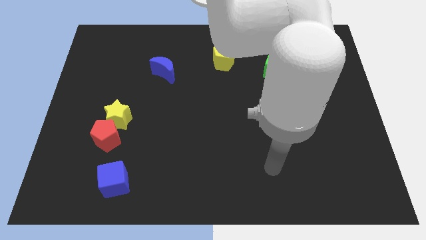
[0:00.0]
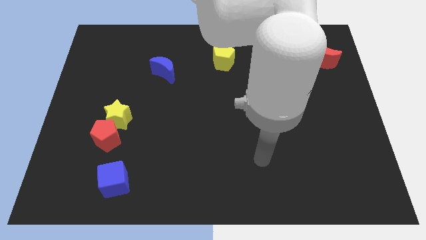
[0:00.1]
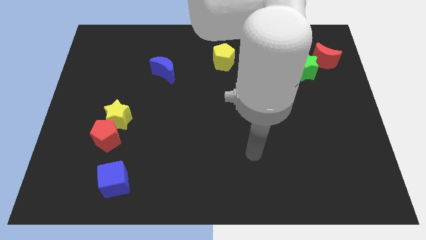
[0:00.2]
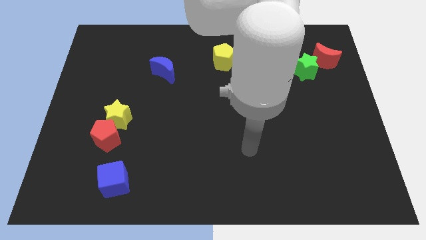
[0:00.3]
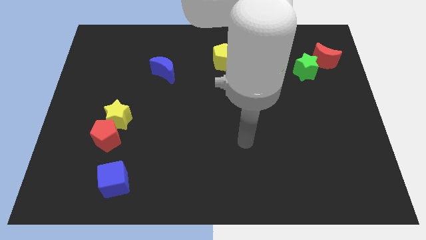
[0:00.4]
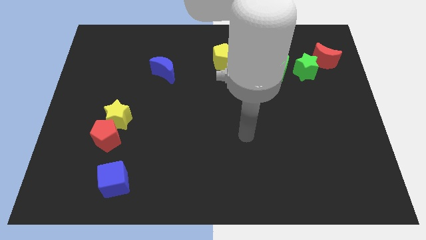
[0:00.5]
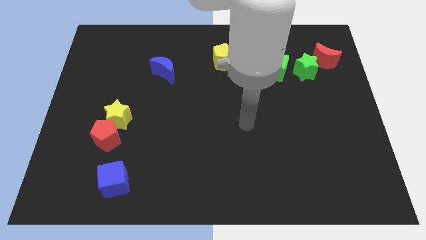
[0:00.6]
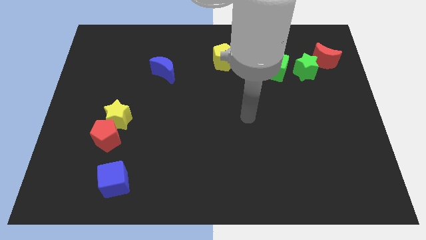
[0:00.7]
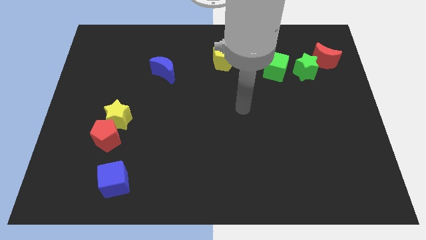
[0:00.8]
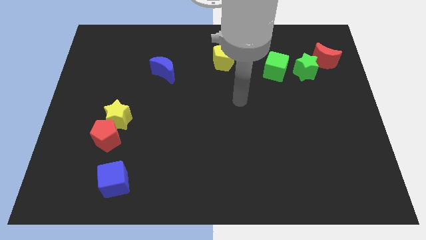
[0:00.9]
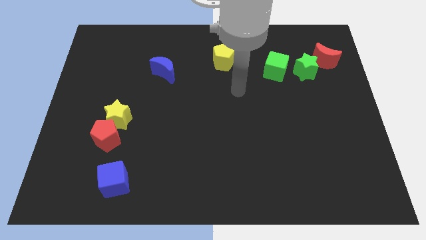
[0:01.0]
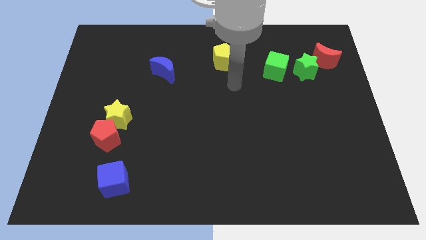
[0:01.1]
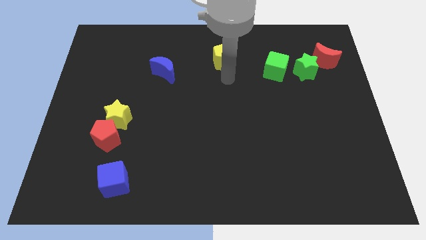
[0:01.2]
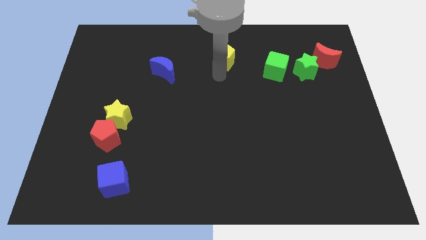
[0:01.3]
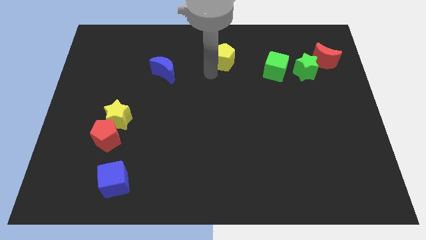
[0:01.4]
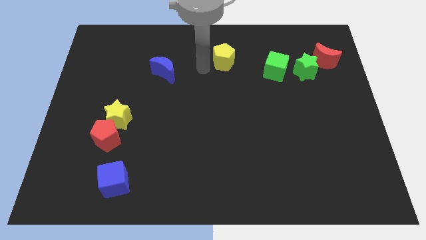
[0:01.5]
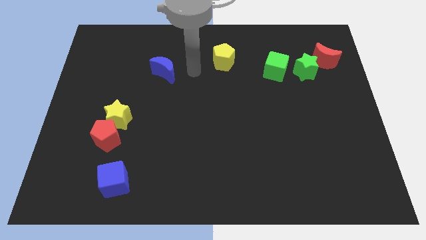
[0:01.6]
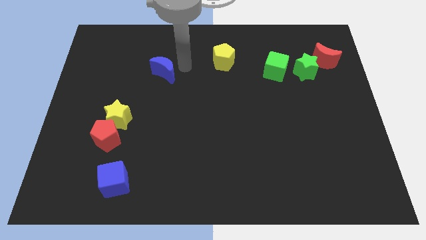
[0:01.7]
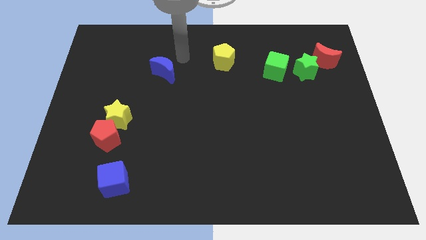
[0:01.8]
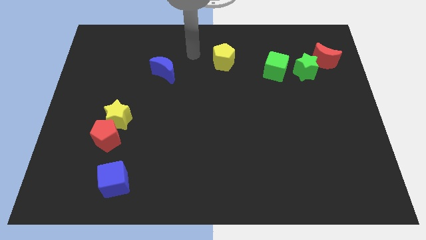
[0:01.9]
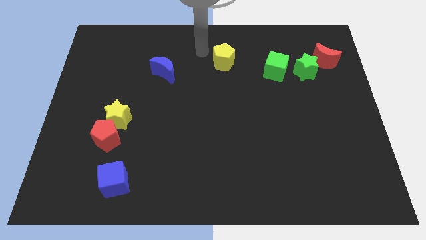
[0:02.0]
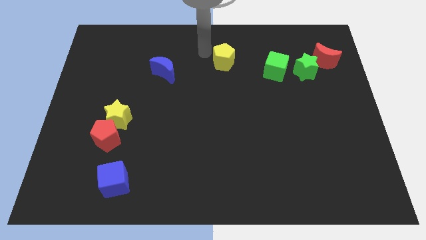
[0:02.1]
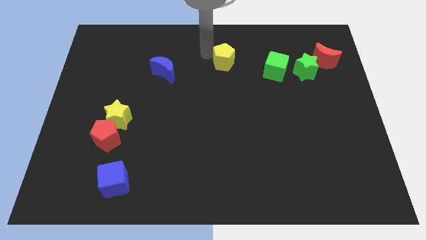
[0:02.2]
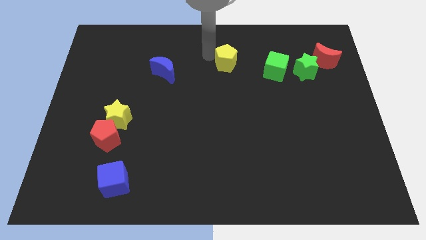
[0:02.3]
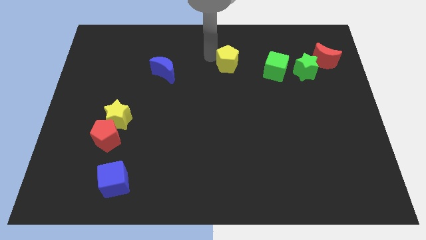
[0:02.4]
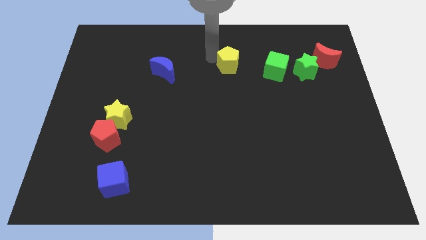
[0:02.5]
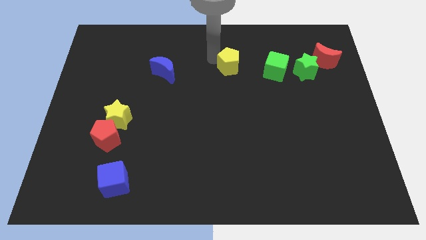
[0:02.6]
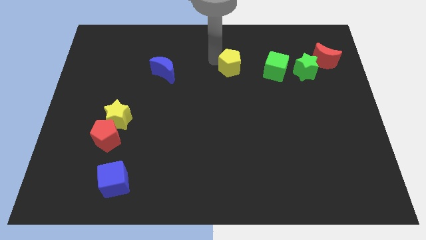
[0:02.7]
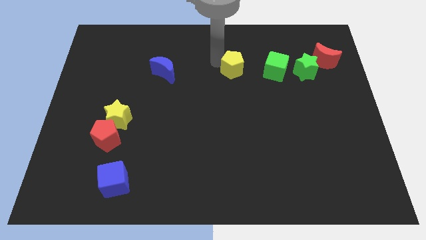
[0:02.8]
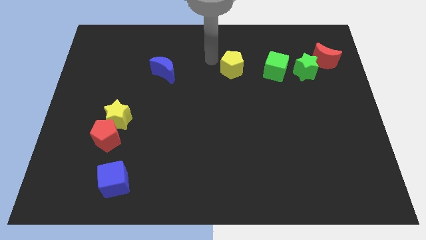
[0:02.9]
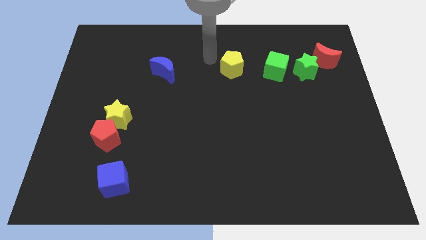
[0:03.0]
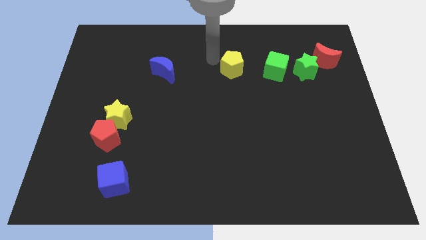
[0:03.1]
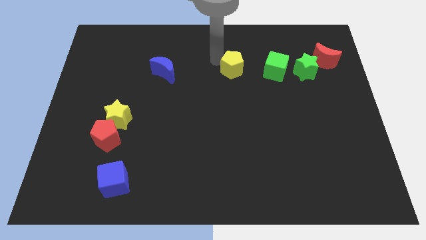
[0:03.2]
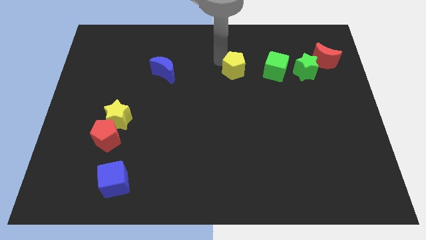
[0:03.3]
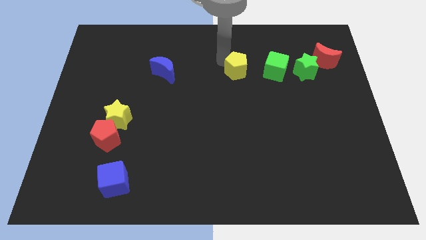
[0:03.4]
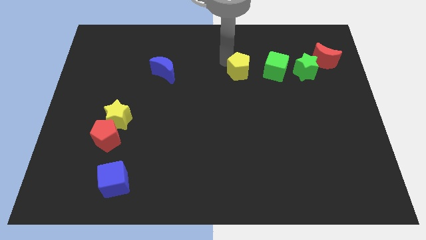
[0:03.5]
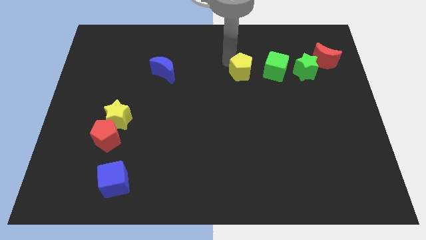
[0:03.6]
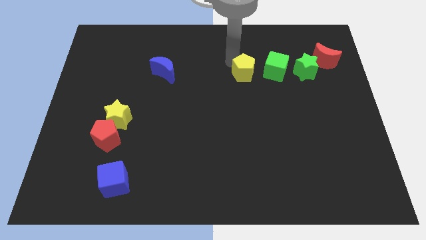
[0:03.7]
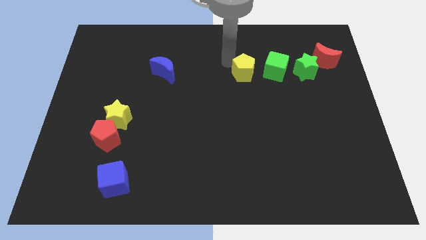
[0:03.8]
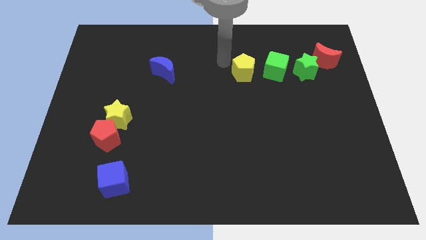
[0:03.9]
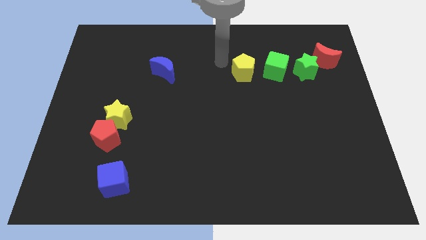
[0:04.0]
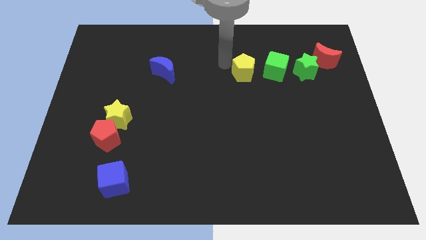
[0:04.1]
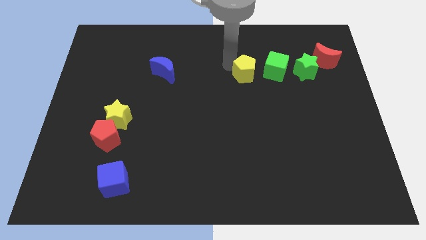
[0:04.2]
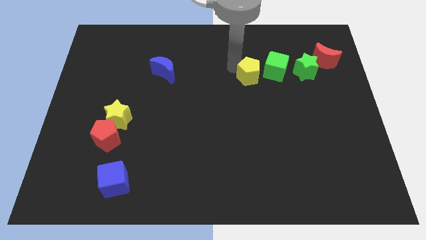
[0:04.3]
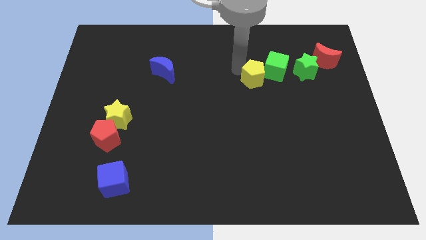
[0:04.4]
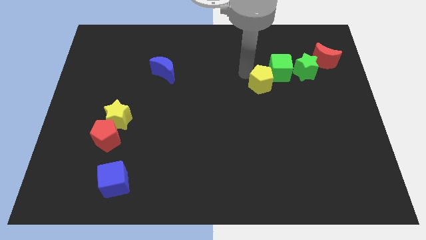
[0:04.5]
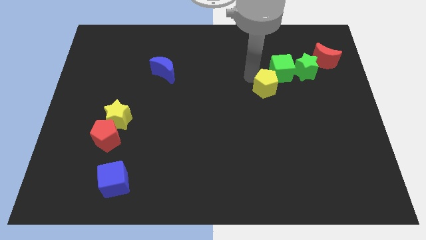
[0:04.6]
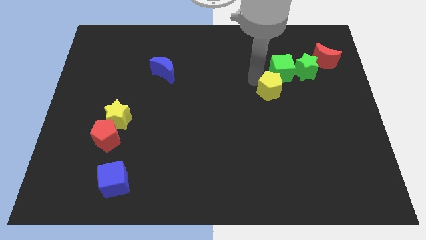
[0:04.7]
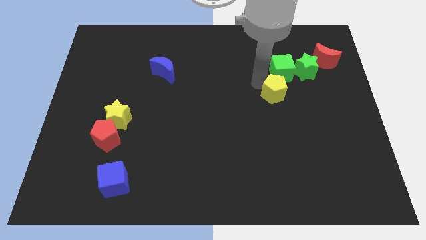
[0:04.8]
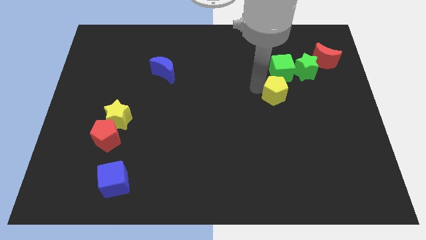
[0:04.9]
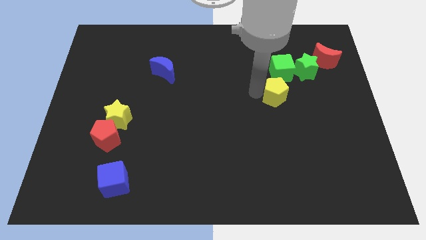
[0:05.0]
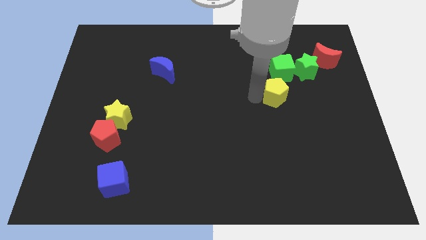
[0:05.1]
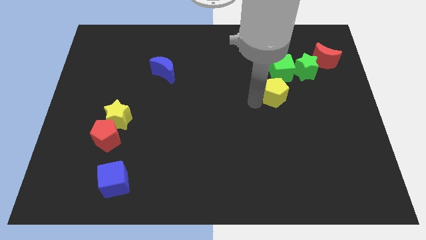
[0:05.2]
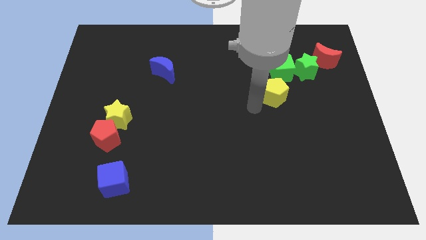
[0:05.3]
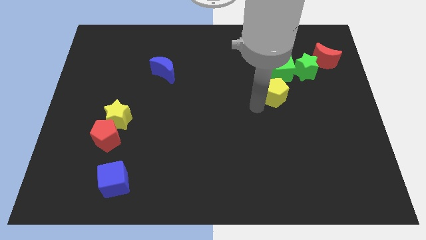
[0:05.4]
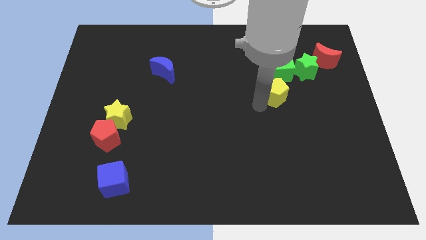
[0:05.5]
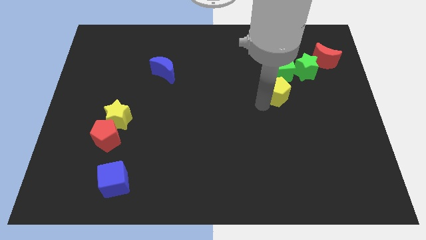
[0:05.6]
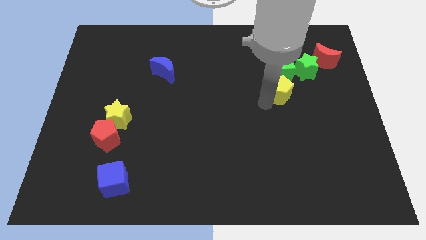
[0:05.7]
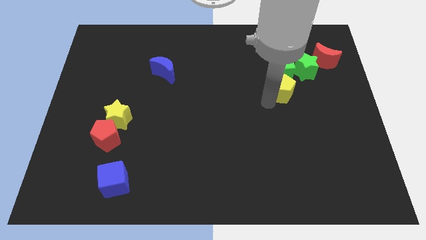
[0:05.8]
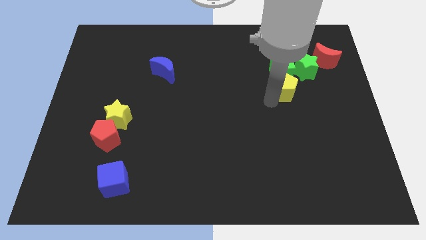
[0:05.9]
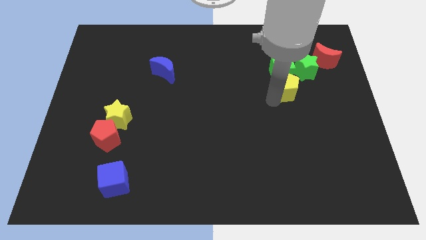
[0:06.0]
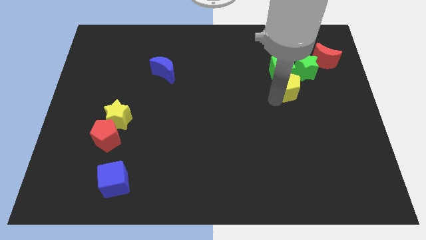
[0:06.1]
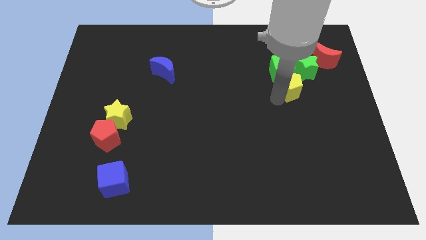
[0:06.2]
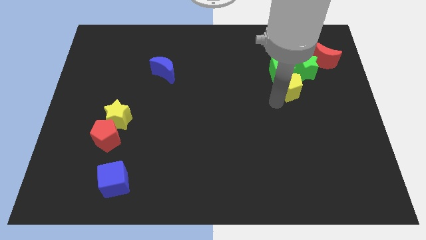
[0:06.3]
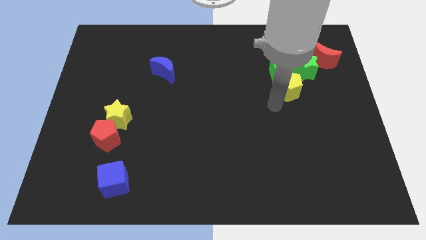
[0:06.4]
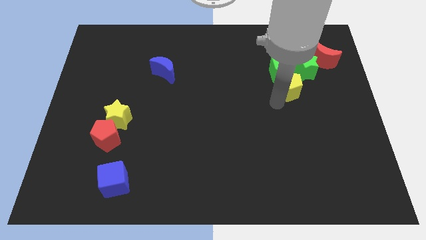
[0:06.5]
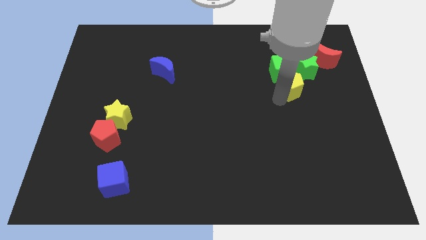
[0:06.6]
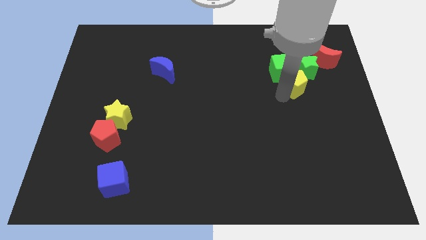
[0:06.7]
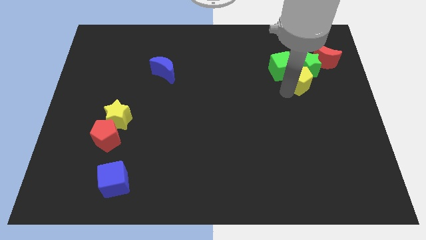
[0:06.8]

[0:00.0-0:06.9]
move the yellow pentagon next to the green star
